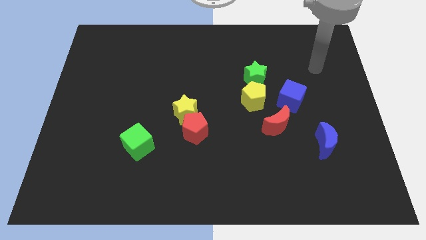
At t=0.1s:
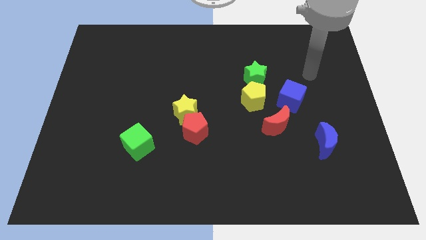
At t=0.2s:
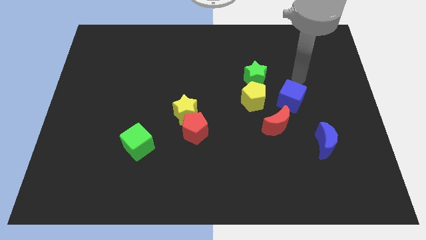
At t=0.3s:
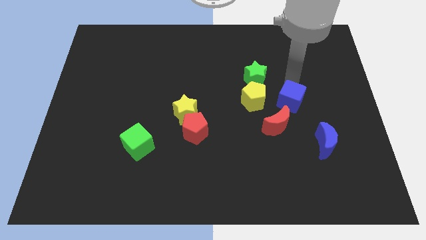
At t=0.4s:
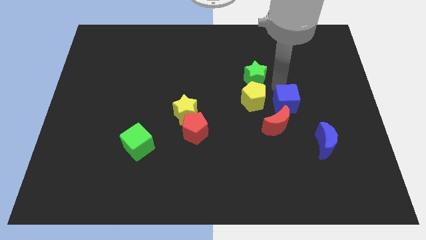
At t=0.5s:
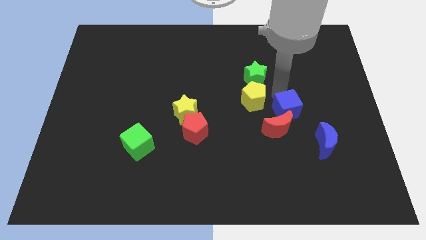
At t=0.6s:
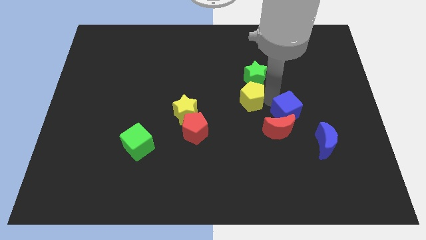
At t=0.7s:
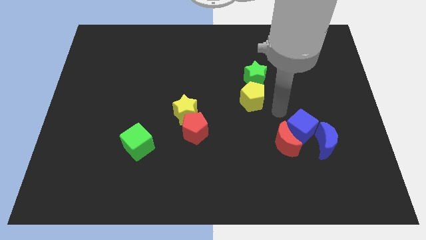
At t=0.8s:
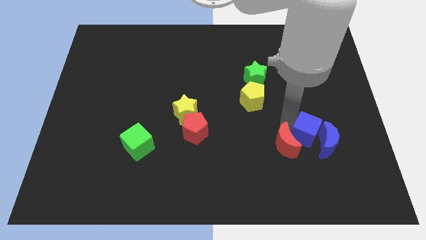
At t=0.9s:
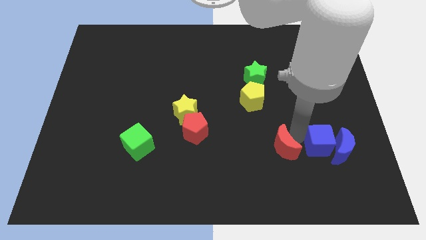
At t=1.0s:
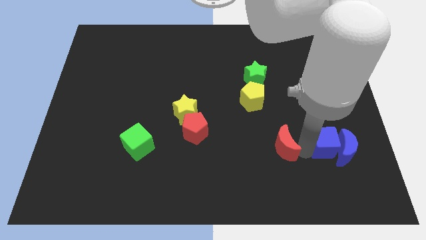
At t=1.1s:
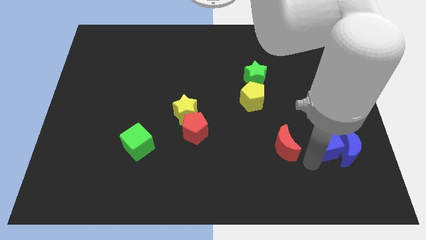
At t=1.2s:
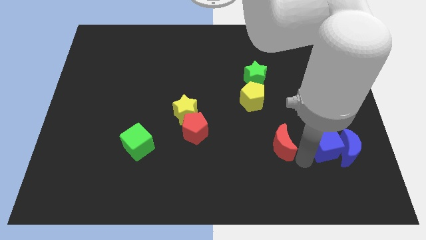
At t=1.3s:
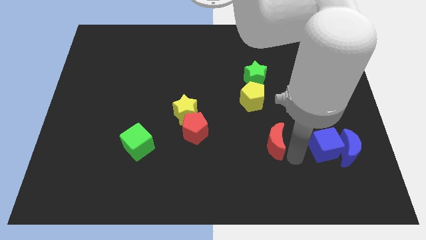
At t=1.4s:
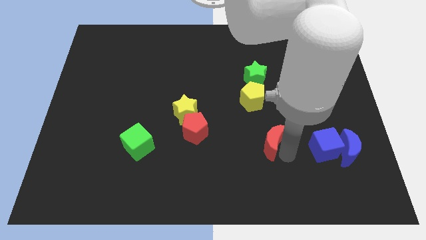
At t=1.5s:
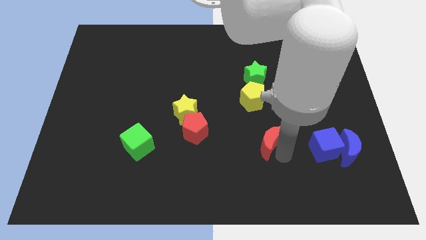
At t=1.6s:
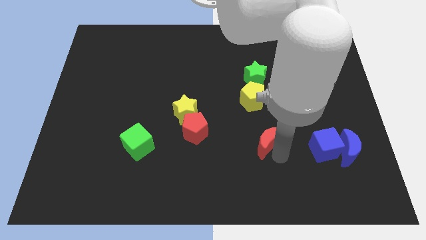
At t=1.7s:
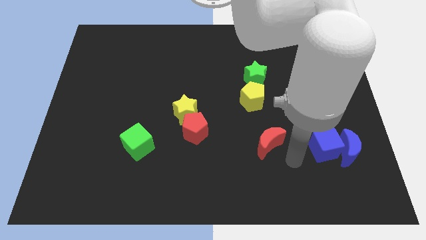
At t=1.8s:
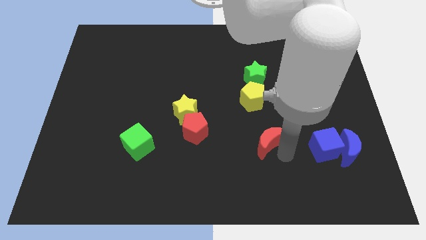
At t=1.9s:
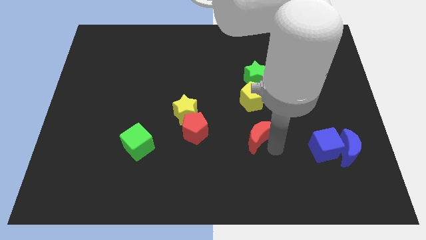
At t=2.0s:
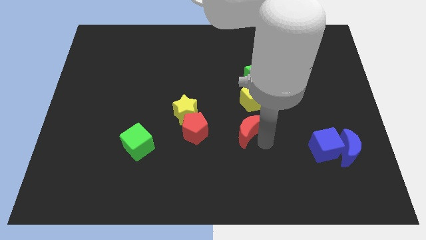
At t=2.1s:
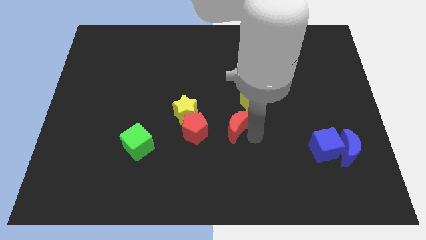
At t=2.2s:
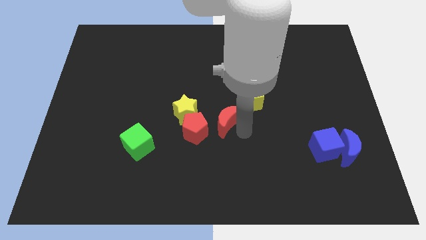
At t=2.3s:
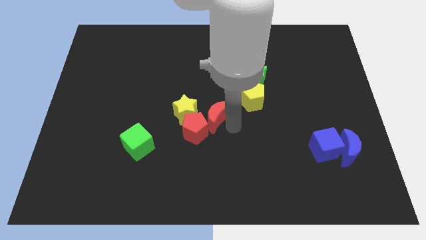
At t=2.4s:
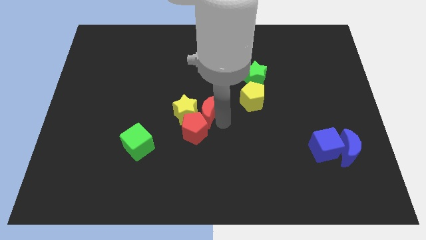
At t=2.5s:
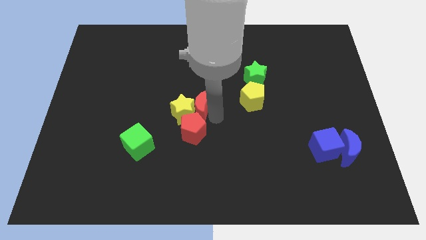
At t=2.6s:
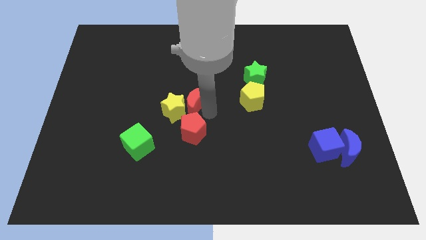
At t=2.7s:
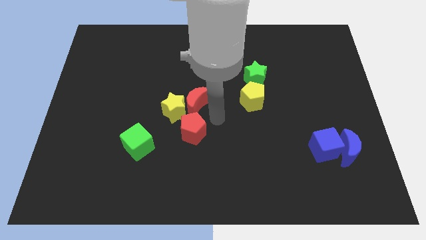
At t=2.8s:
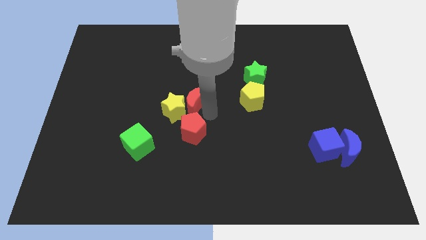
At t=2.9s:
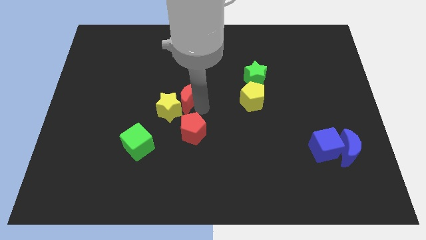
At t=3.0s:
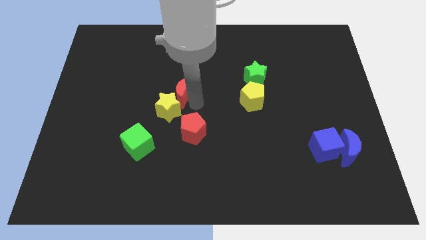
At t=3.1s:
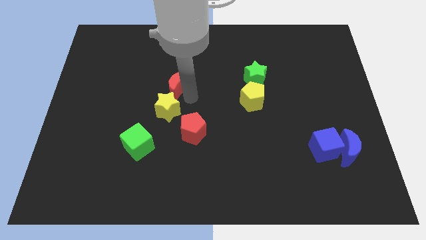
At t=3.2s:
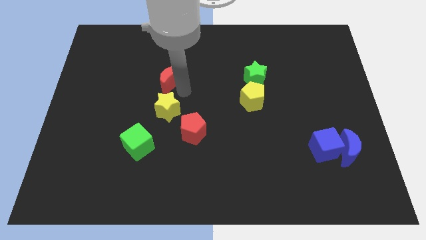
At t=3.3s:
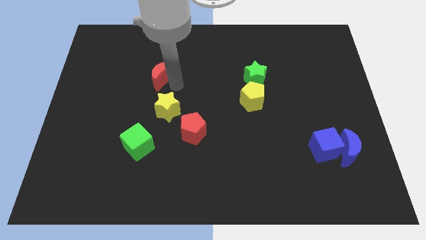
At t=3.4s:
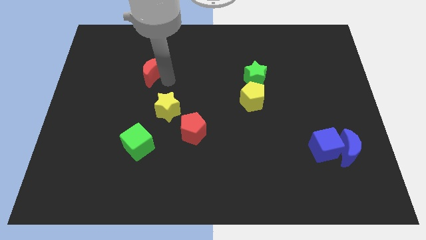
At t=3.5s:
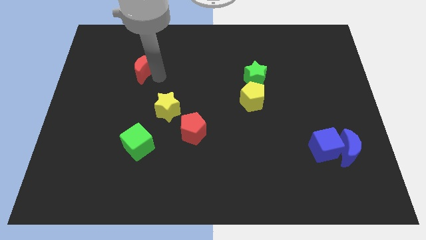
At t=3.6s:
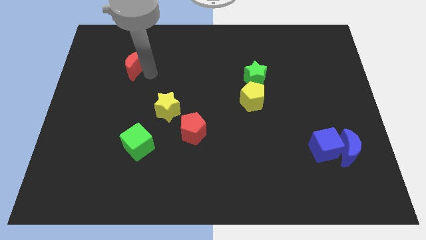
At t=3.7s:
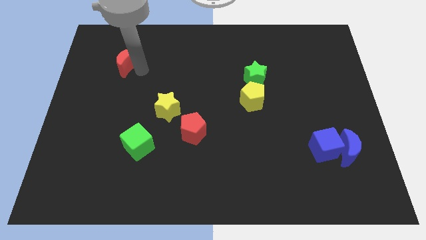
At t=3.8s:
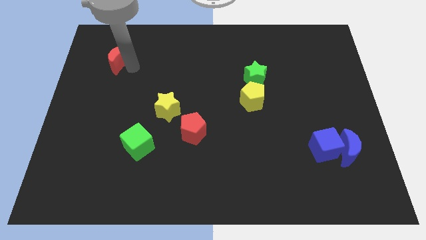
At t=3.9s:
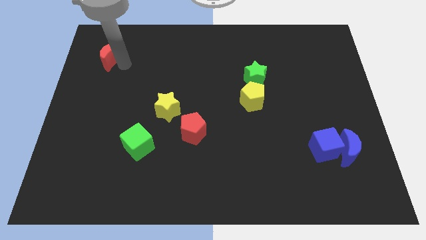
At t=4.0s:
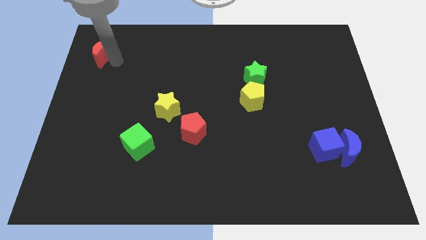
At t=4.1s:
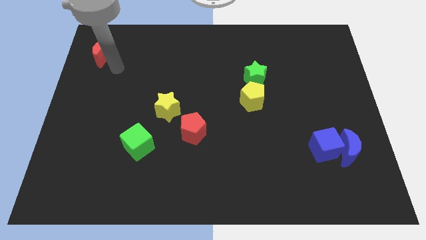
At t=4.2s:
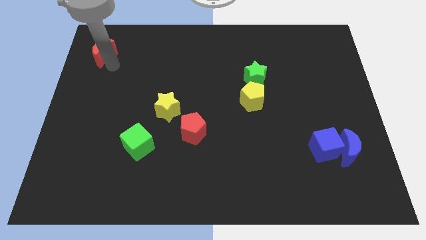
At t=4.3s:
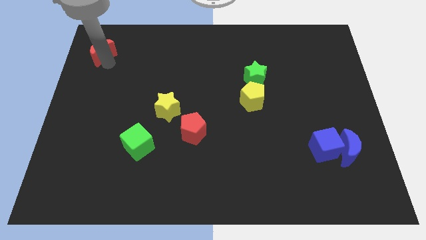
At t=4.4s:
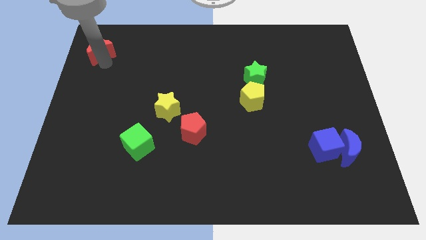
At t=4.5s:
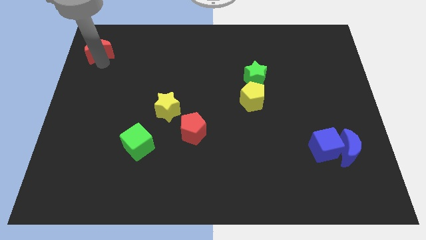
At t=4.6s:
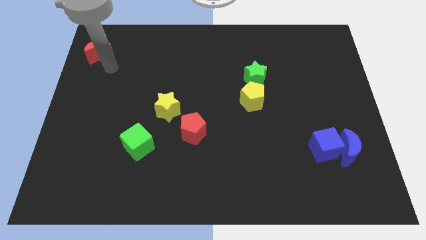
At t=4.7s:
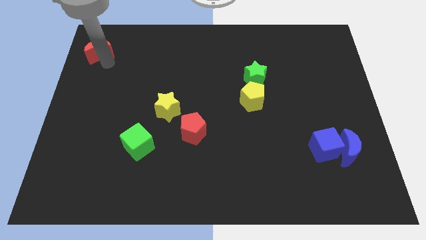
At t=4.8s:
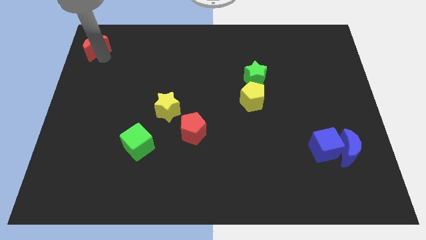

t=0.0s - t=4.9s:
slide the red moon to the top left corner

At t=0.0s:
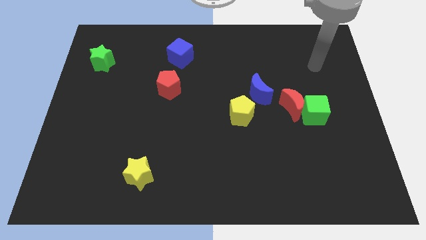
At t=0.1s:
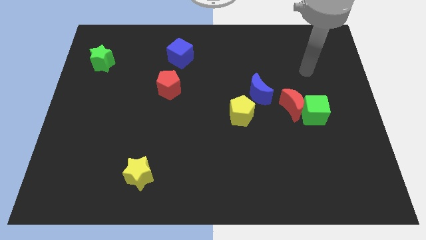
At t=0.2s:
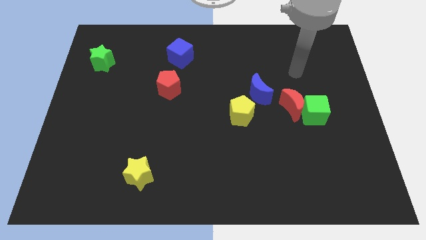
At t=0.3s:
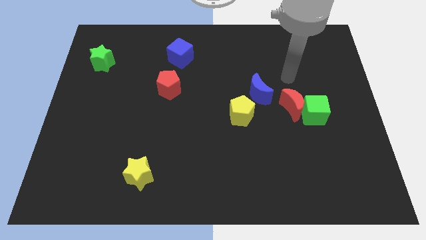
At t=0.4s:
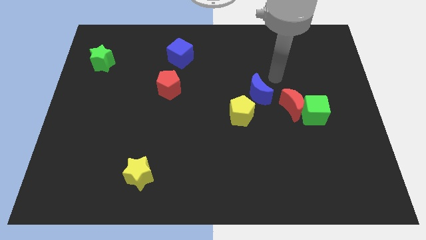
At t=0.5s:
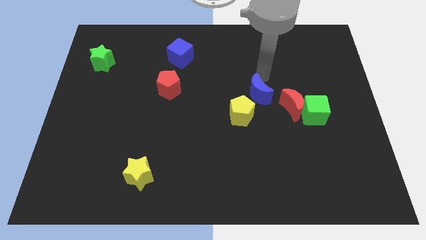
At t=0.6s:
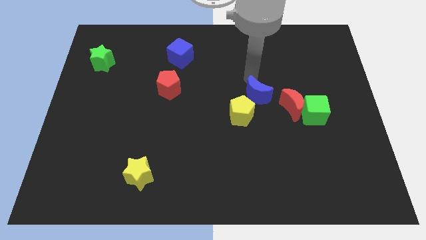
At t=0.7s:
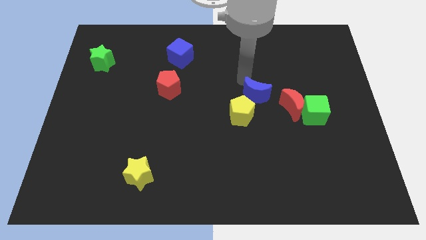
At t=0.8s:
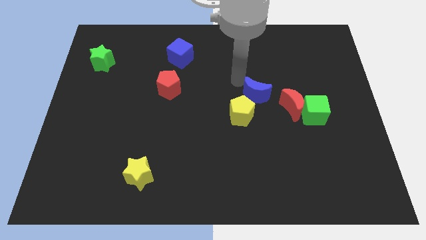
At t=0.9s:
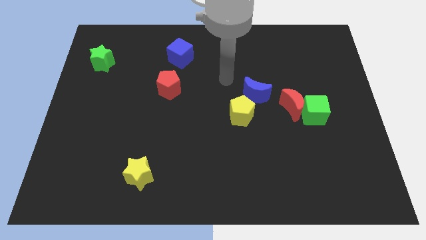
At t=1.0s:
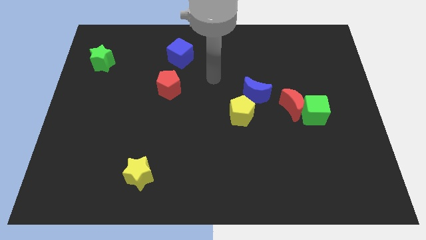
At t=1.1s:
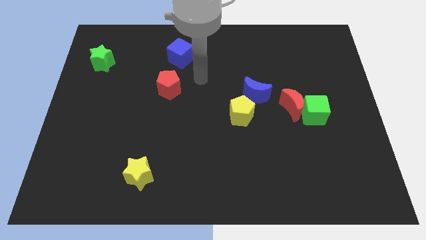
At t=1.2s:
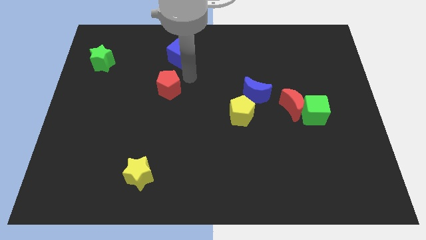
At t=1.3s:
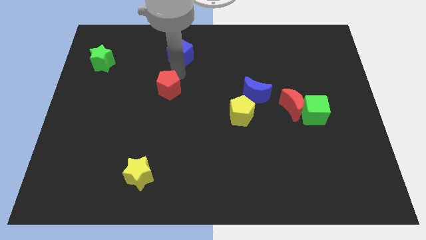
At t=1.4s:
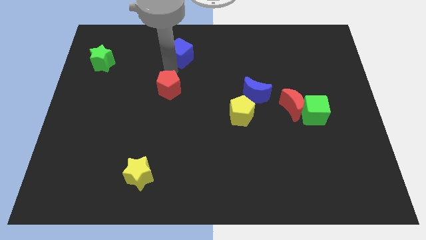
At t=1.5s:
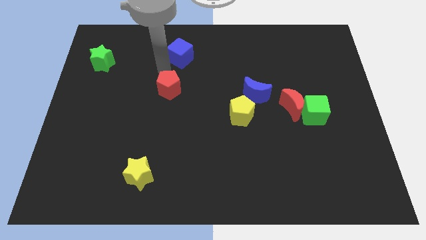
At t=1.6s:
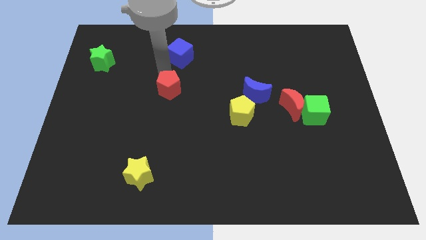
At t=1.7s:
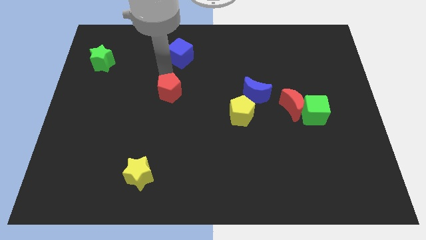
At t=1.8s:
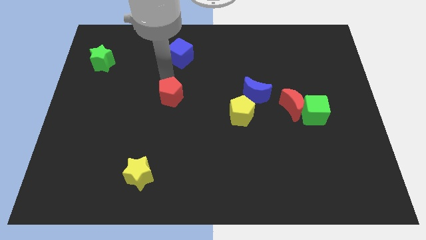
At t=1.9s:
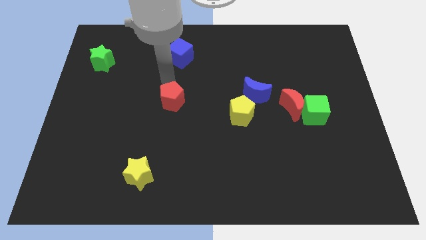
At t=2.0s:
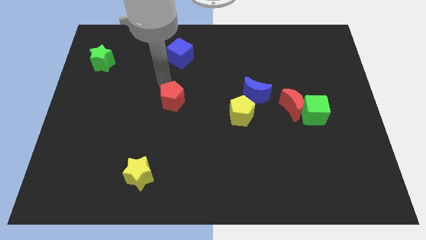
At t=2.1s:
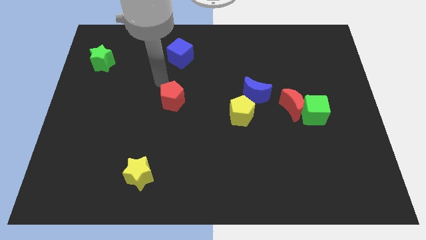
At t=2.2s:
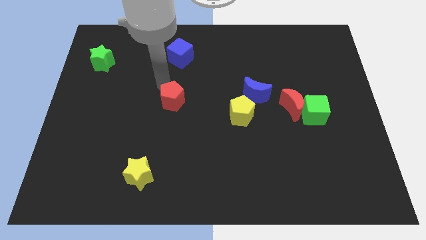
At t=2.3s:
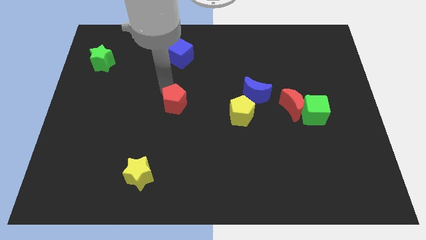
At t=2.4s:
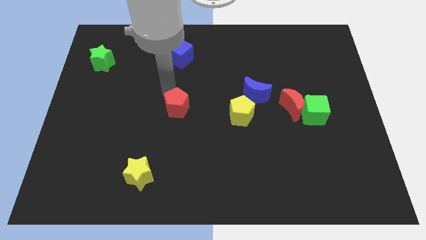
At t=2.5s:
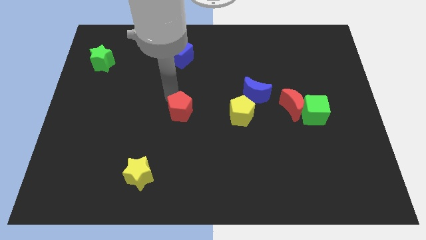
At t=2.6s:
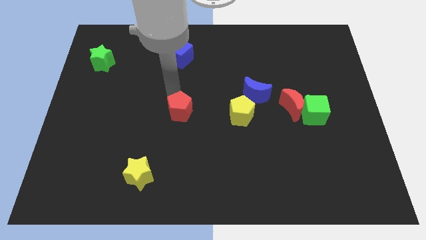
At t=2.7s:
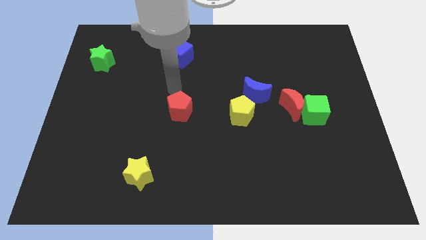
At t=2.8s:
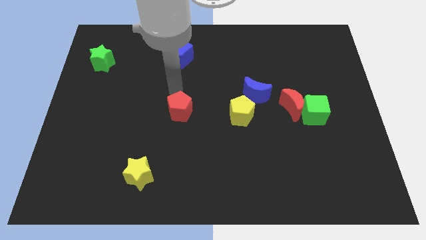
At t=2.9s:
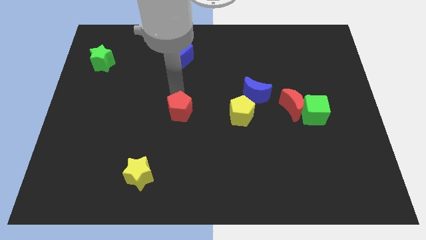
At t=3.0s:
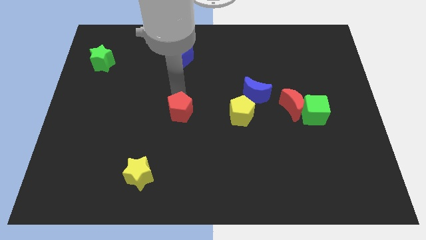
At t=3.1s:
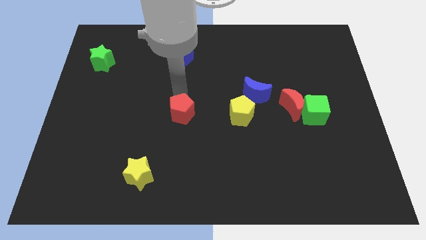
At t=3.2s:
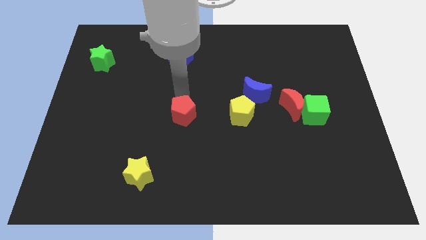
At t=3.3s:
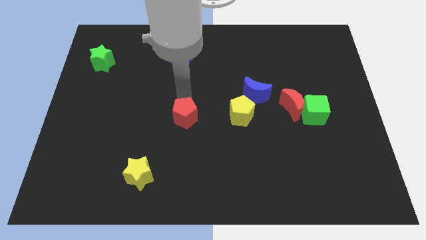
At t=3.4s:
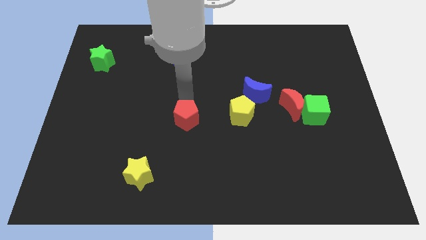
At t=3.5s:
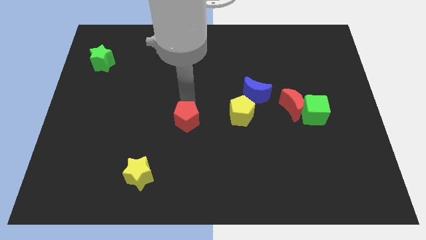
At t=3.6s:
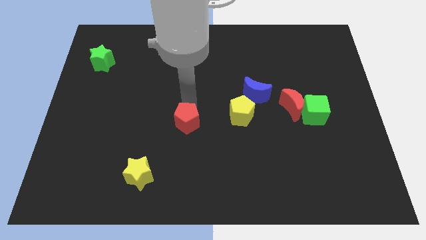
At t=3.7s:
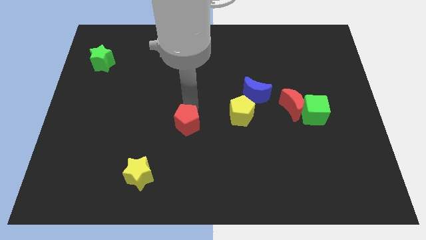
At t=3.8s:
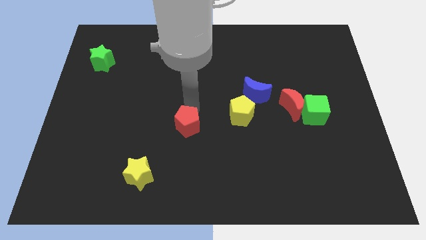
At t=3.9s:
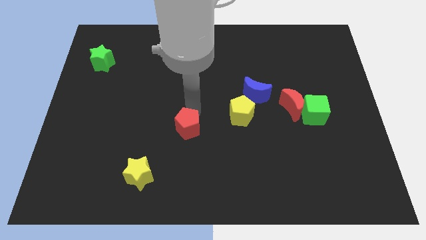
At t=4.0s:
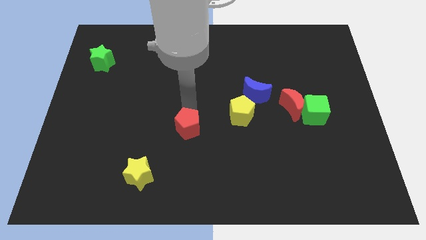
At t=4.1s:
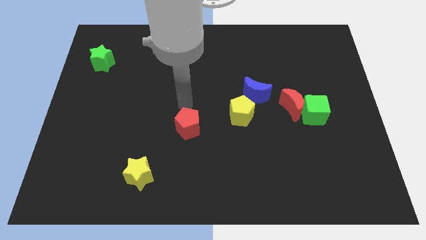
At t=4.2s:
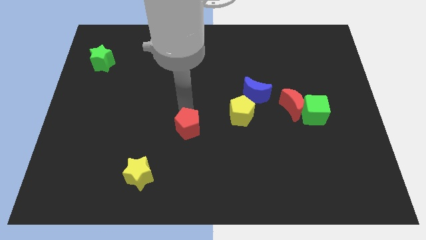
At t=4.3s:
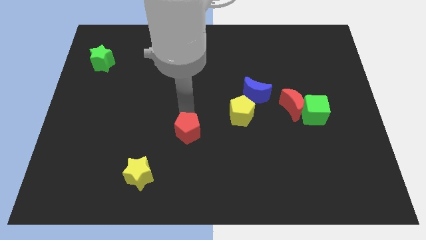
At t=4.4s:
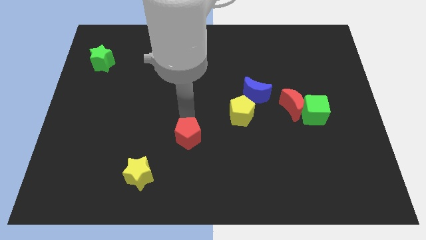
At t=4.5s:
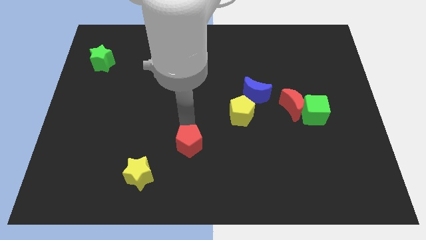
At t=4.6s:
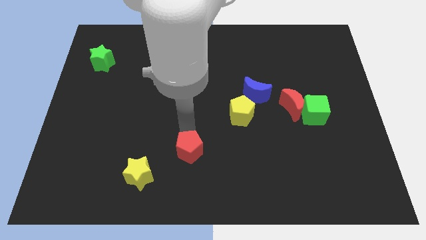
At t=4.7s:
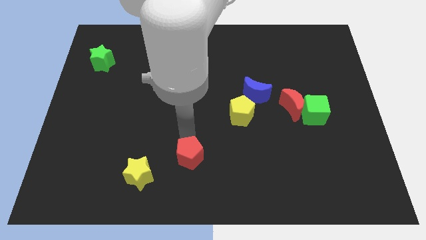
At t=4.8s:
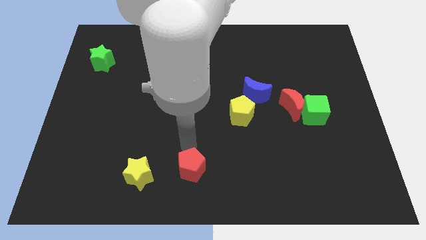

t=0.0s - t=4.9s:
slide the red pentagon to the bottom
